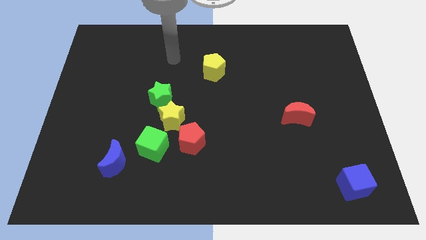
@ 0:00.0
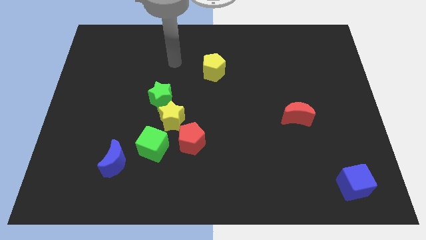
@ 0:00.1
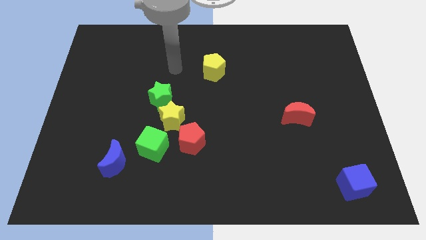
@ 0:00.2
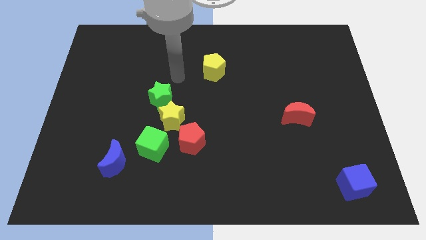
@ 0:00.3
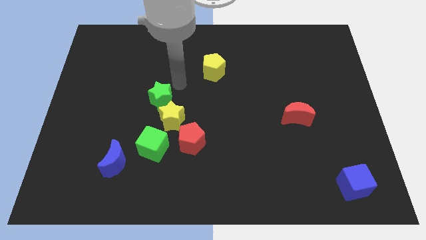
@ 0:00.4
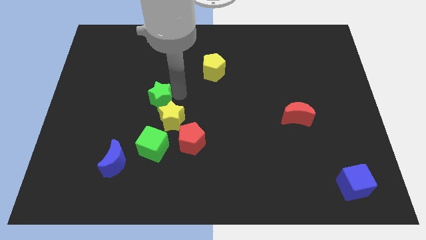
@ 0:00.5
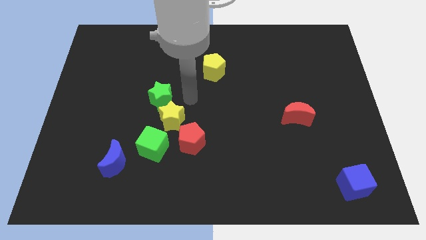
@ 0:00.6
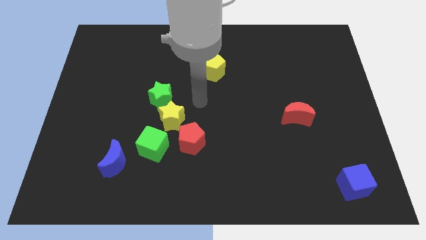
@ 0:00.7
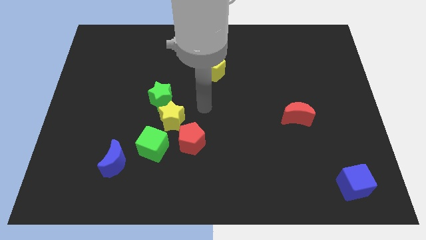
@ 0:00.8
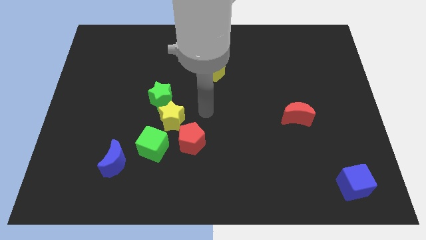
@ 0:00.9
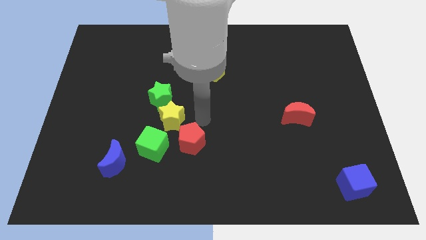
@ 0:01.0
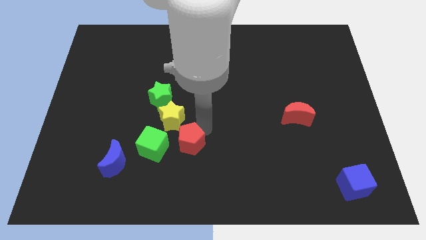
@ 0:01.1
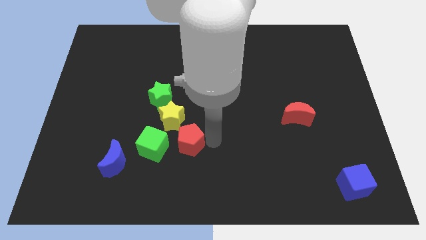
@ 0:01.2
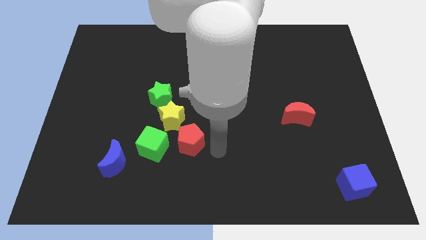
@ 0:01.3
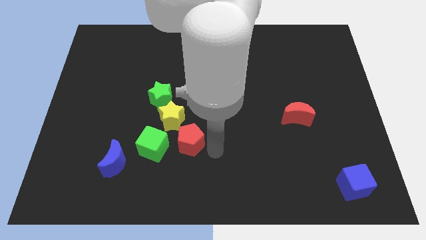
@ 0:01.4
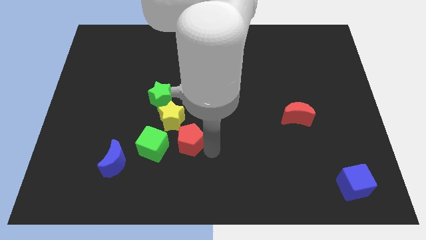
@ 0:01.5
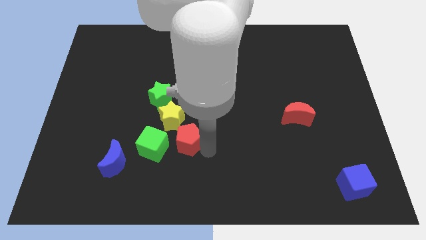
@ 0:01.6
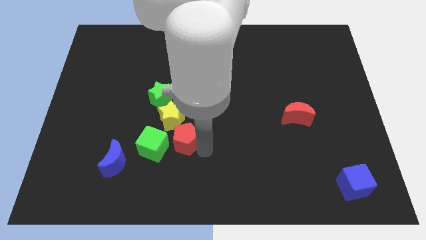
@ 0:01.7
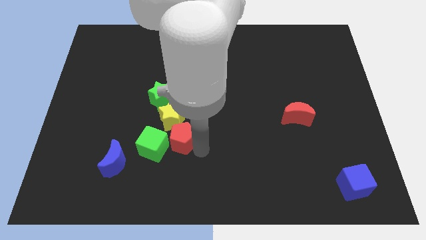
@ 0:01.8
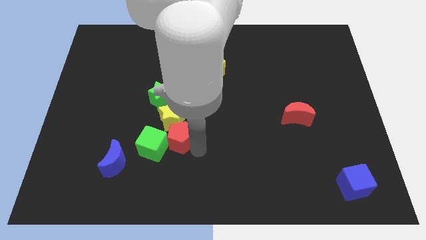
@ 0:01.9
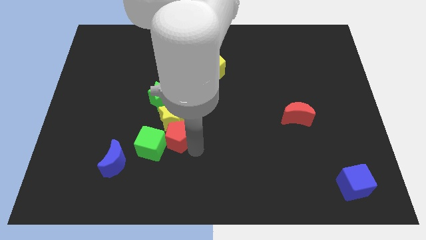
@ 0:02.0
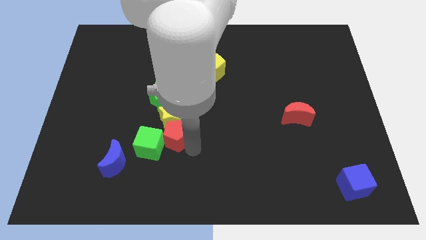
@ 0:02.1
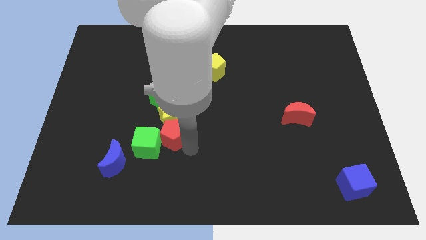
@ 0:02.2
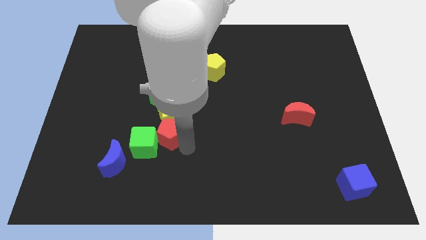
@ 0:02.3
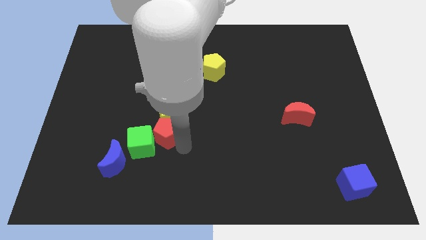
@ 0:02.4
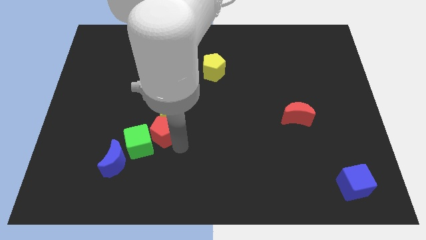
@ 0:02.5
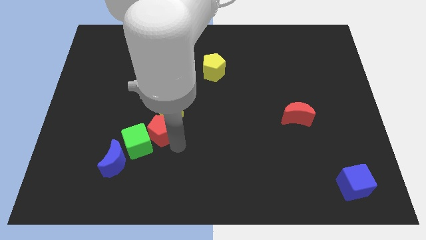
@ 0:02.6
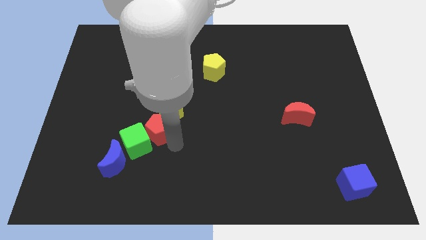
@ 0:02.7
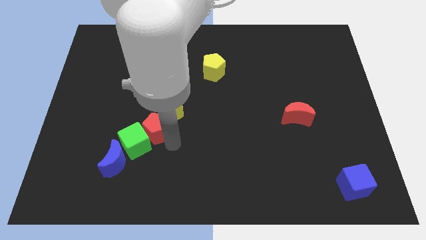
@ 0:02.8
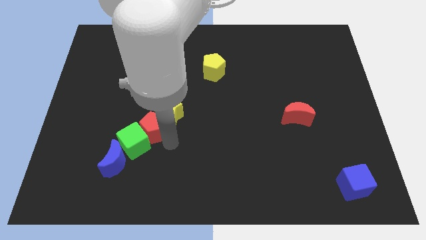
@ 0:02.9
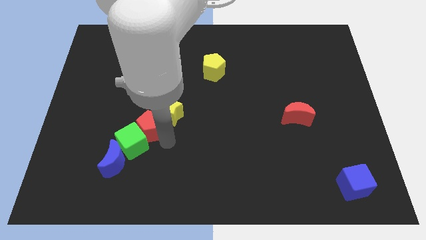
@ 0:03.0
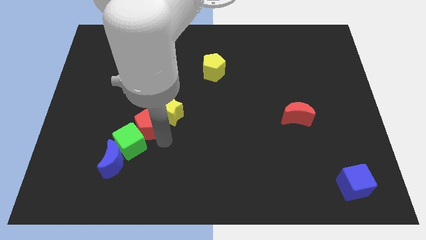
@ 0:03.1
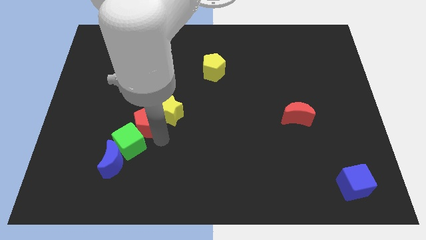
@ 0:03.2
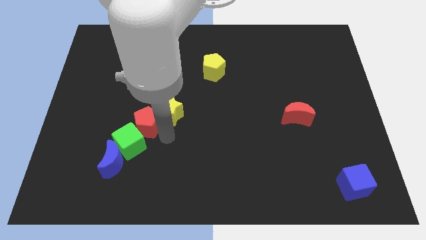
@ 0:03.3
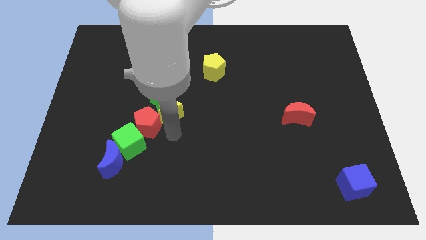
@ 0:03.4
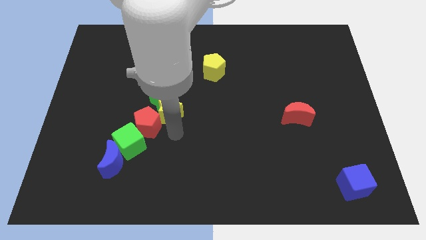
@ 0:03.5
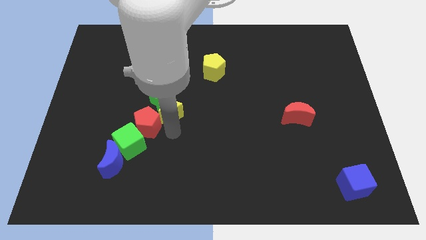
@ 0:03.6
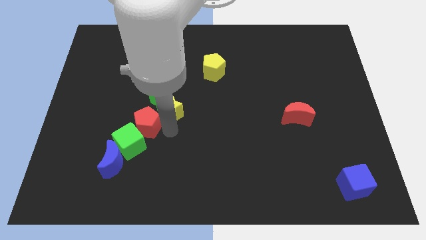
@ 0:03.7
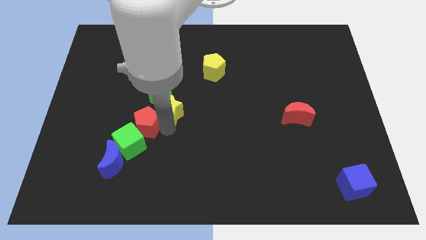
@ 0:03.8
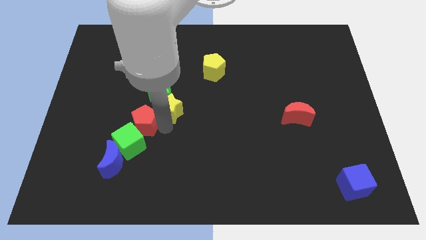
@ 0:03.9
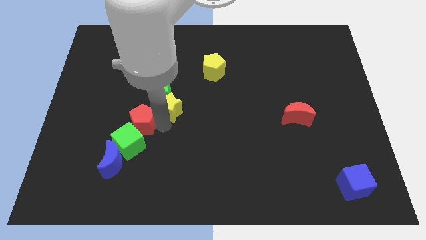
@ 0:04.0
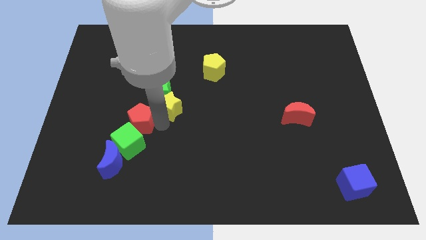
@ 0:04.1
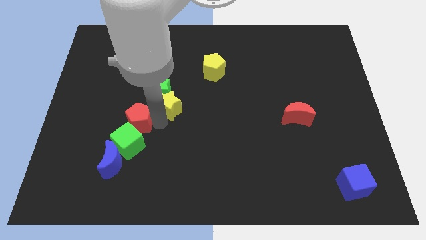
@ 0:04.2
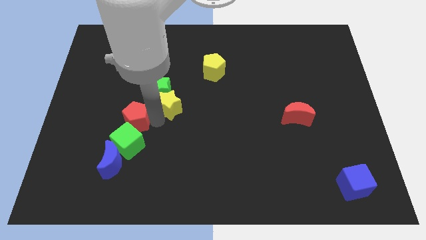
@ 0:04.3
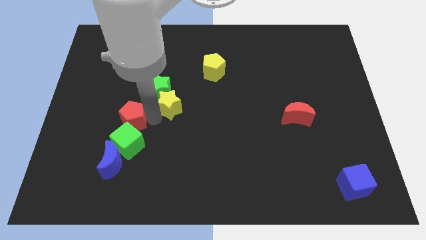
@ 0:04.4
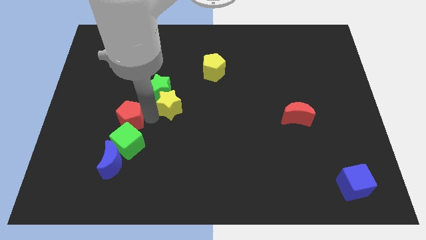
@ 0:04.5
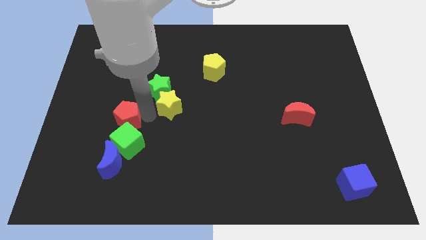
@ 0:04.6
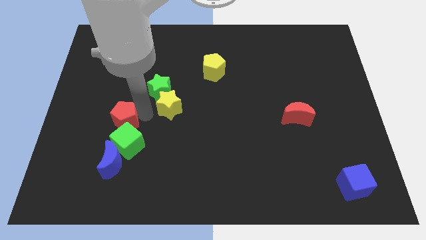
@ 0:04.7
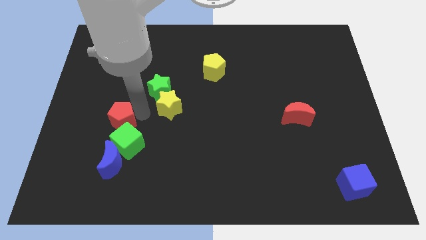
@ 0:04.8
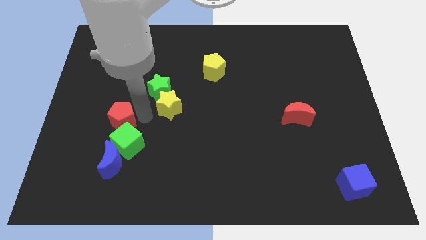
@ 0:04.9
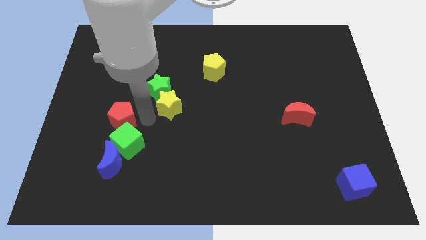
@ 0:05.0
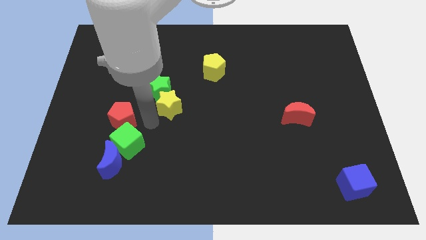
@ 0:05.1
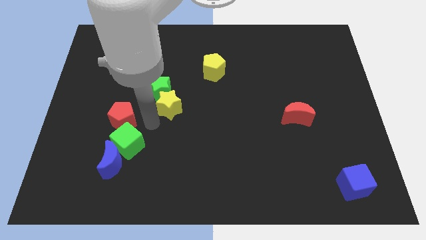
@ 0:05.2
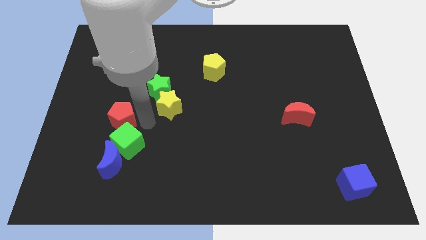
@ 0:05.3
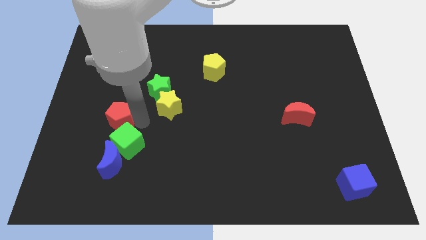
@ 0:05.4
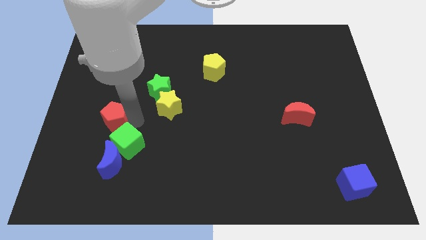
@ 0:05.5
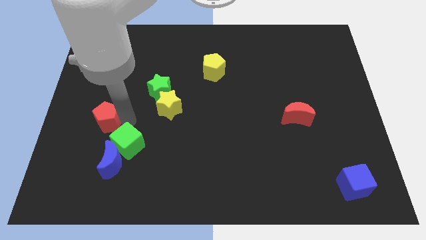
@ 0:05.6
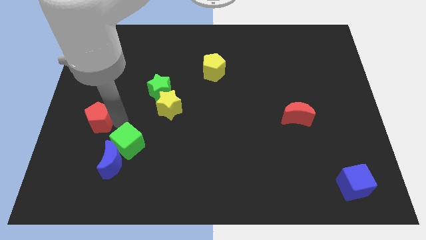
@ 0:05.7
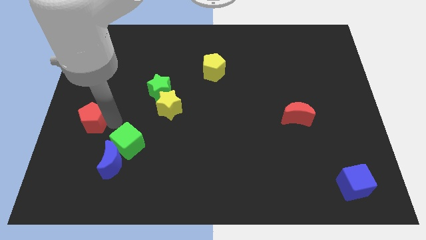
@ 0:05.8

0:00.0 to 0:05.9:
push the red pentagon to the left side
